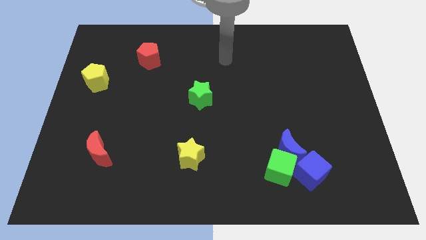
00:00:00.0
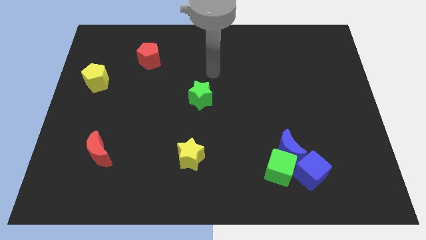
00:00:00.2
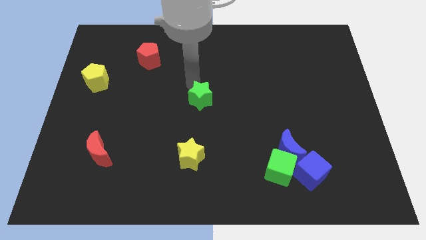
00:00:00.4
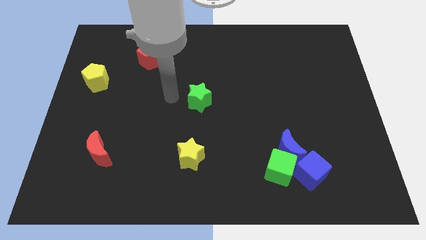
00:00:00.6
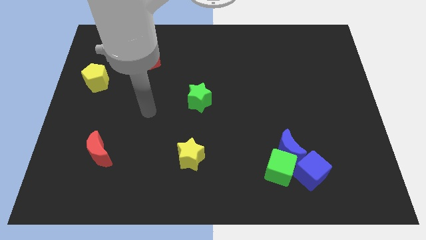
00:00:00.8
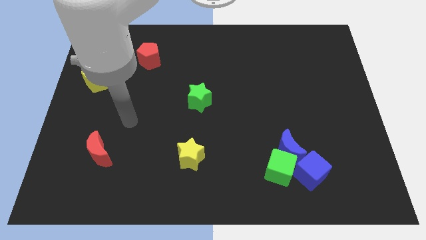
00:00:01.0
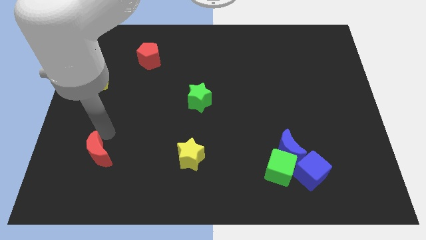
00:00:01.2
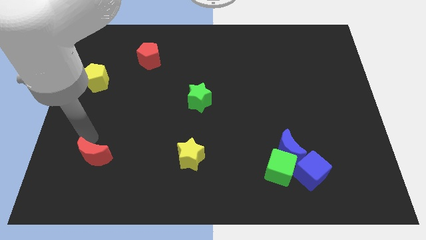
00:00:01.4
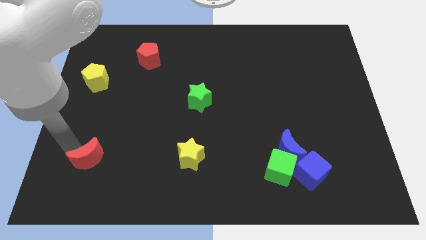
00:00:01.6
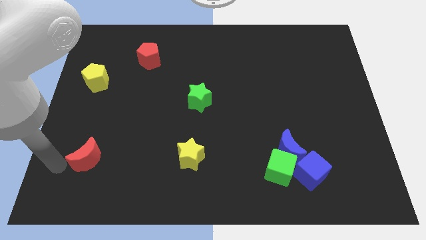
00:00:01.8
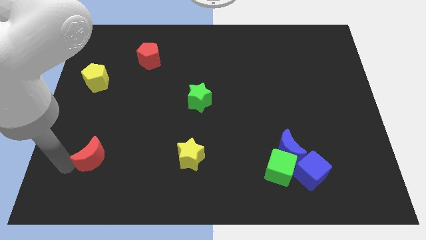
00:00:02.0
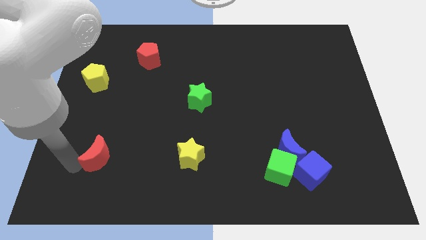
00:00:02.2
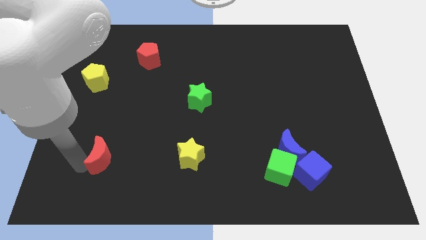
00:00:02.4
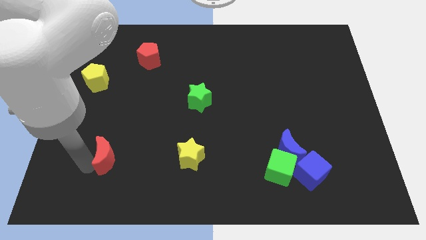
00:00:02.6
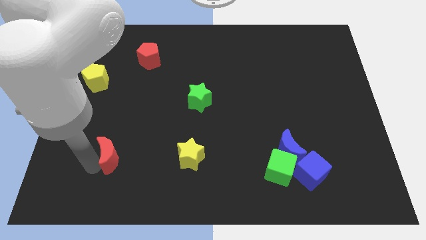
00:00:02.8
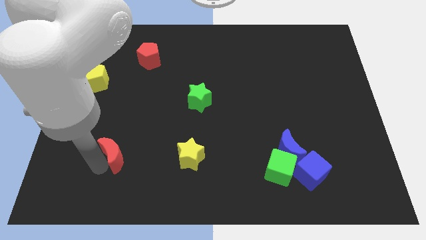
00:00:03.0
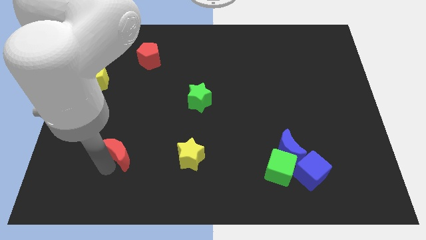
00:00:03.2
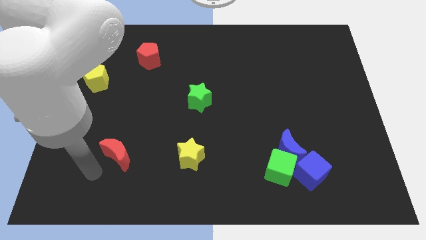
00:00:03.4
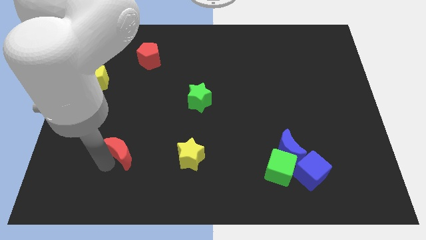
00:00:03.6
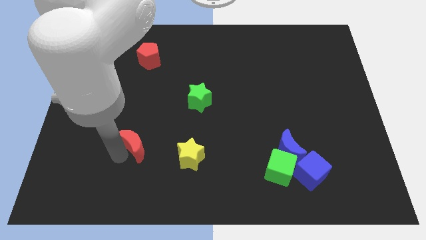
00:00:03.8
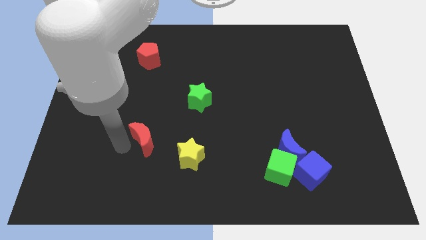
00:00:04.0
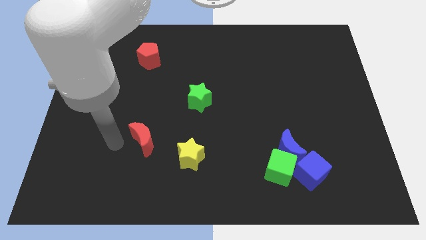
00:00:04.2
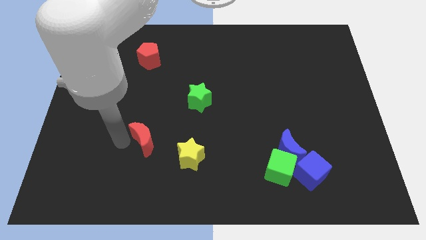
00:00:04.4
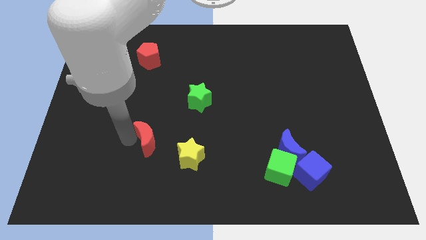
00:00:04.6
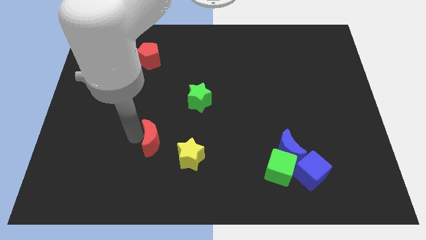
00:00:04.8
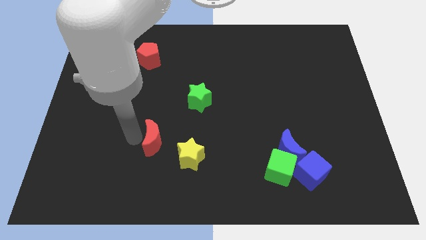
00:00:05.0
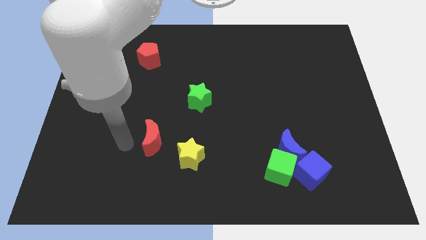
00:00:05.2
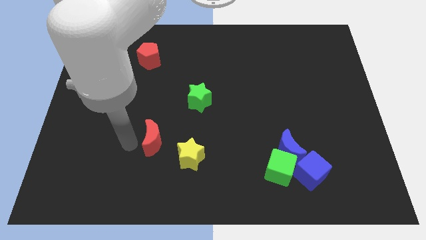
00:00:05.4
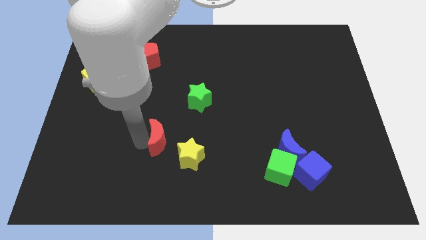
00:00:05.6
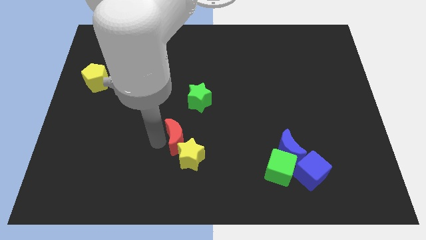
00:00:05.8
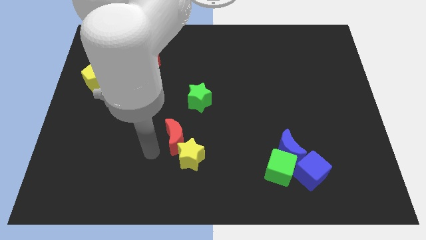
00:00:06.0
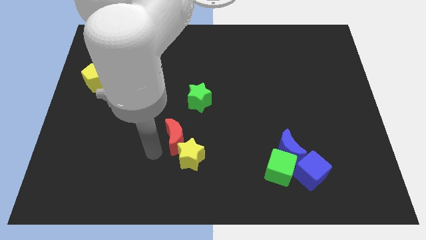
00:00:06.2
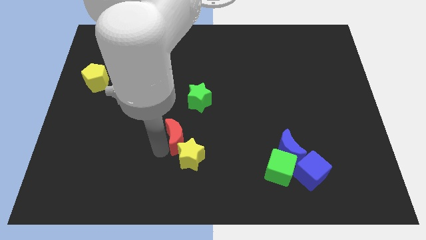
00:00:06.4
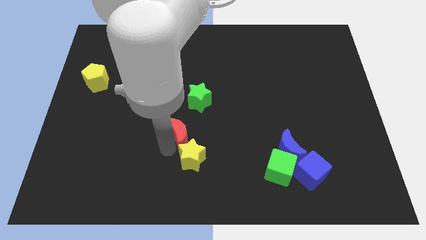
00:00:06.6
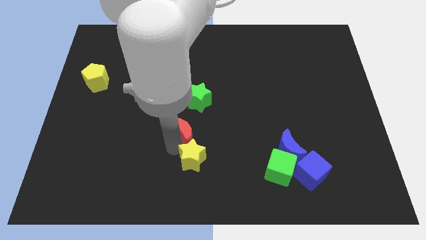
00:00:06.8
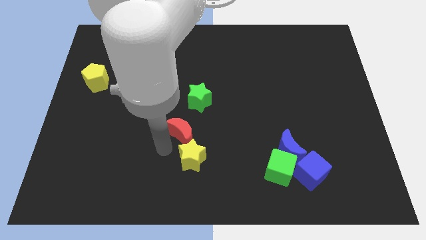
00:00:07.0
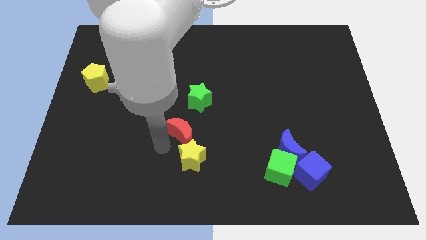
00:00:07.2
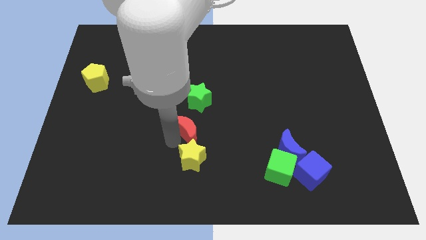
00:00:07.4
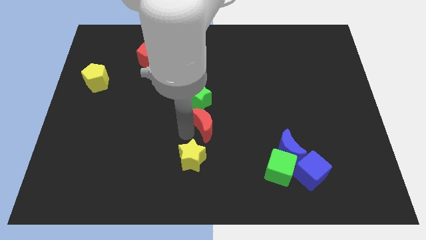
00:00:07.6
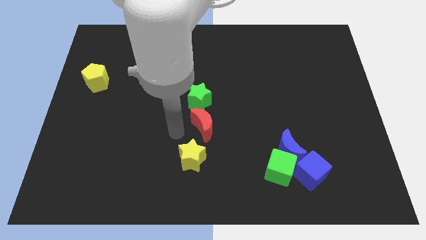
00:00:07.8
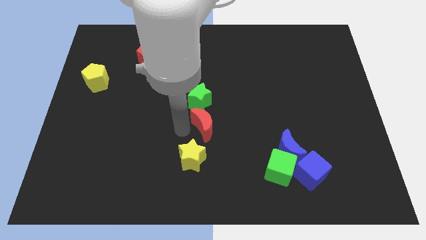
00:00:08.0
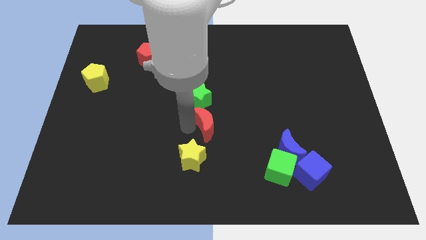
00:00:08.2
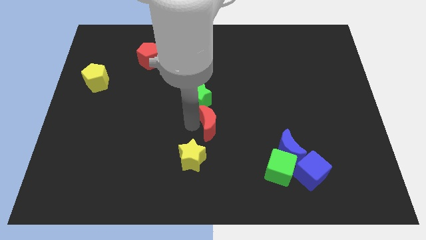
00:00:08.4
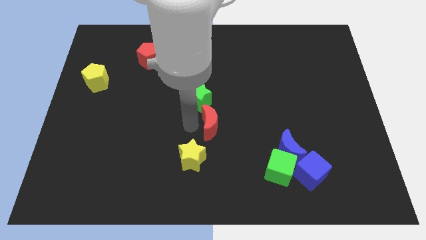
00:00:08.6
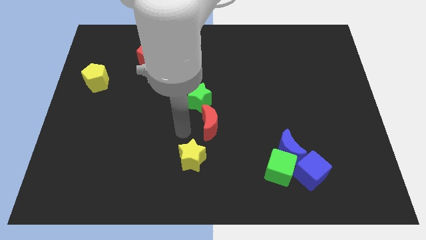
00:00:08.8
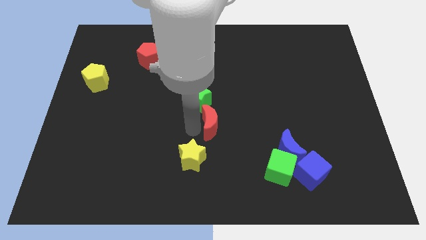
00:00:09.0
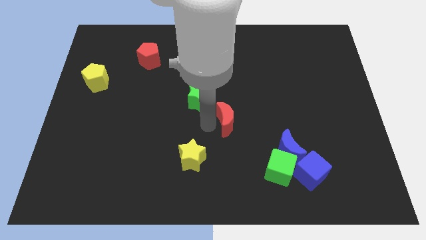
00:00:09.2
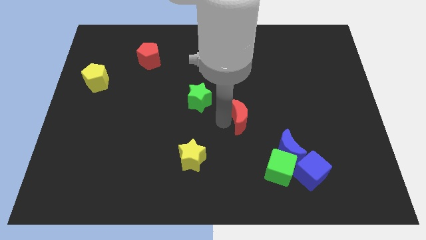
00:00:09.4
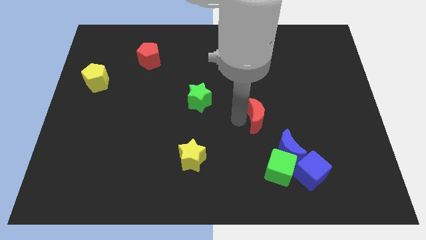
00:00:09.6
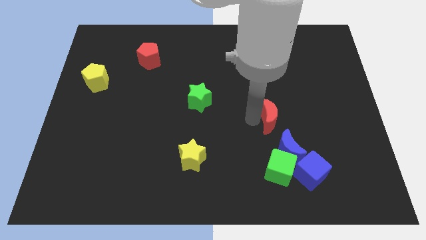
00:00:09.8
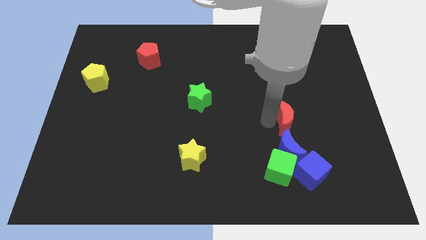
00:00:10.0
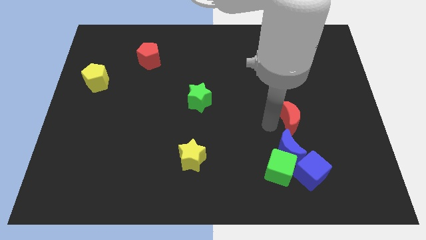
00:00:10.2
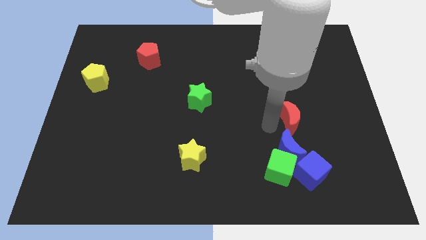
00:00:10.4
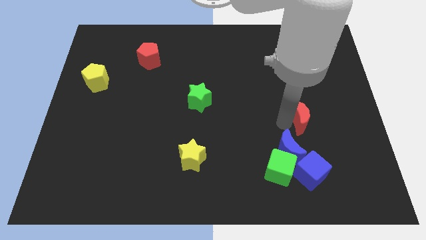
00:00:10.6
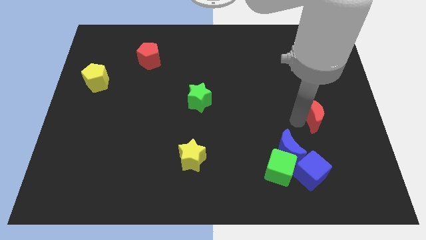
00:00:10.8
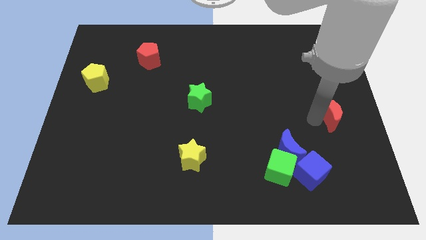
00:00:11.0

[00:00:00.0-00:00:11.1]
put the red moon to the center right
